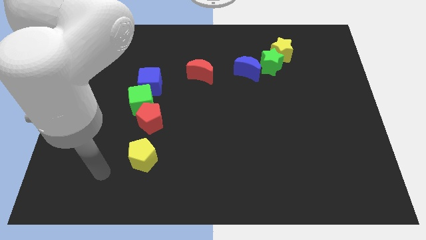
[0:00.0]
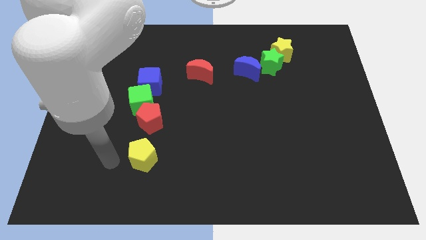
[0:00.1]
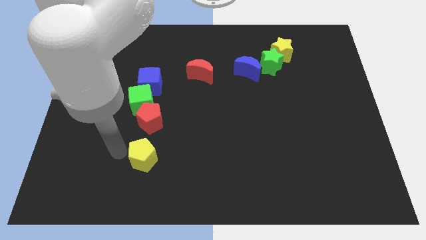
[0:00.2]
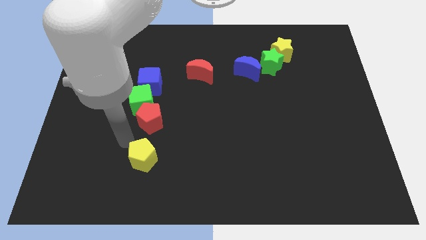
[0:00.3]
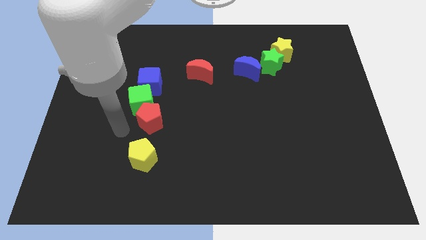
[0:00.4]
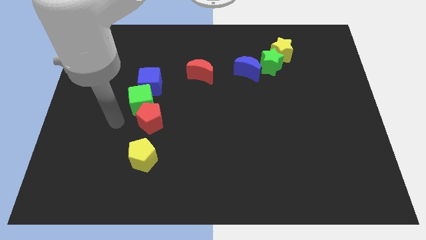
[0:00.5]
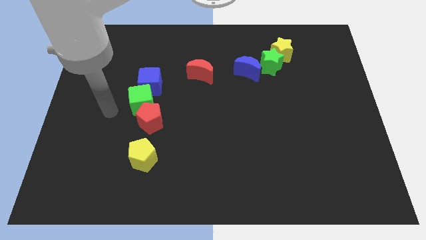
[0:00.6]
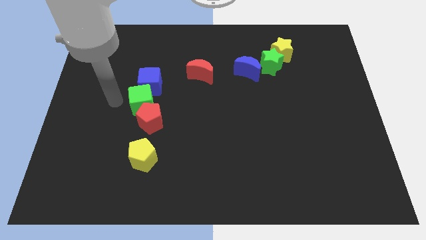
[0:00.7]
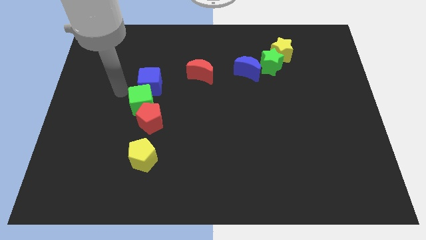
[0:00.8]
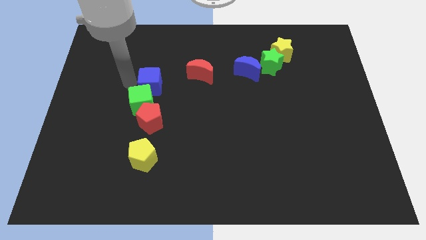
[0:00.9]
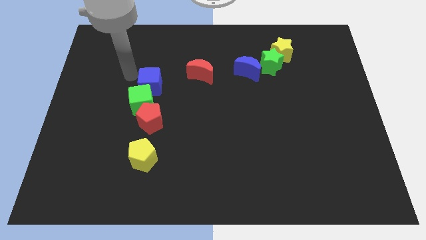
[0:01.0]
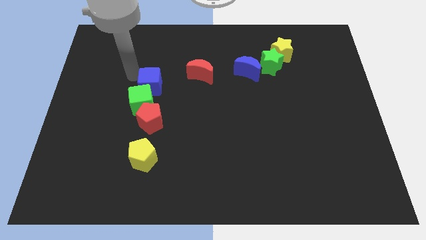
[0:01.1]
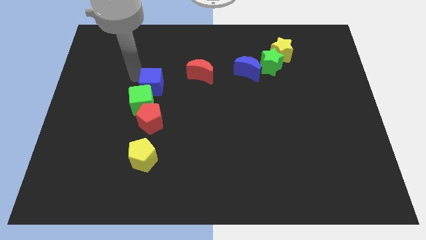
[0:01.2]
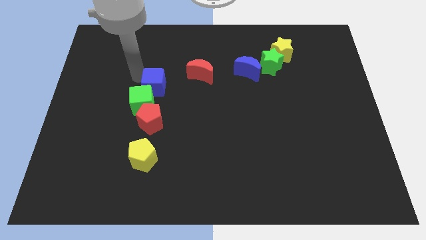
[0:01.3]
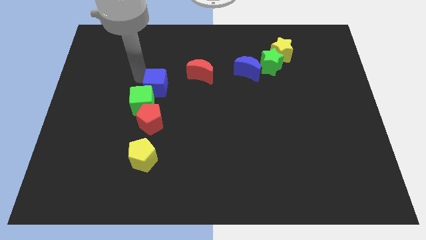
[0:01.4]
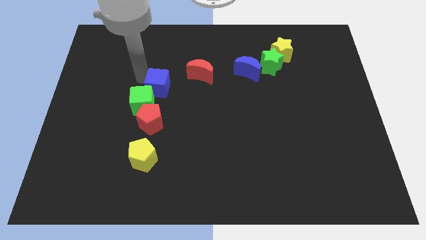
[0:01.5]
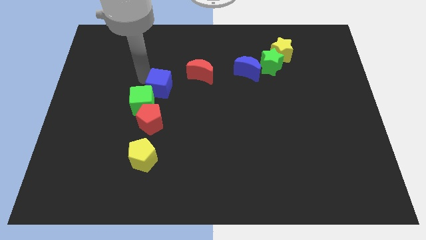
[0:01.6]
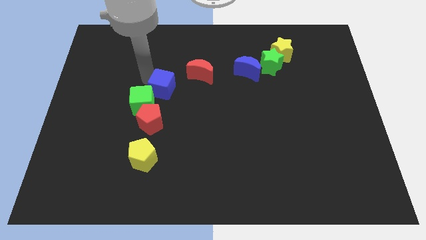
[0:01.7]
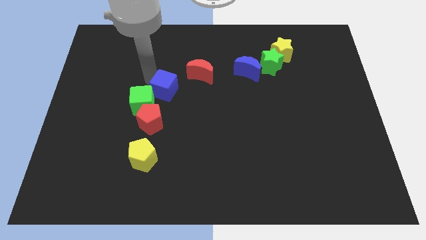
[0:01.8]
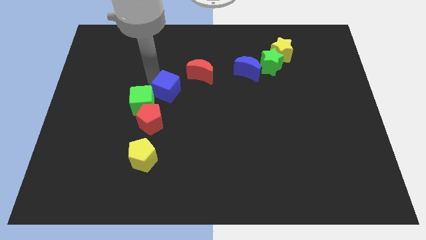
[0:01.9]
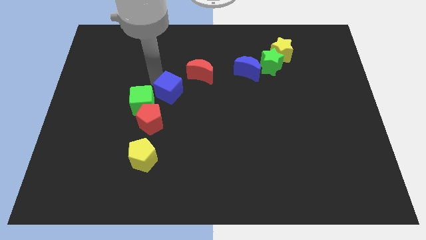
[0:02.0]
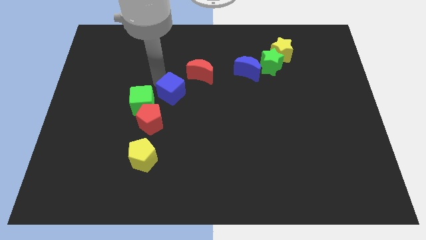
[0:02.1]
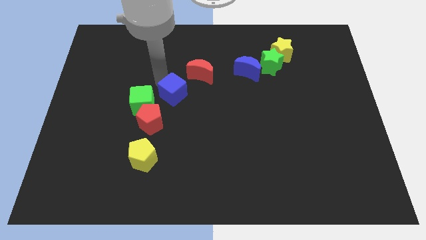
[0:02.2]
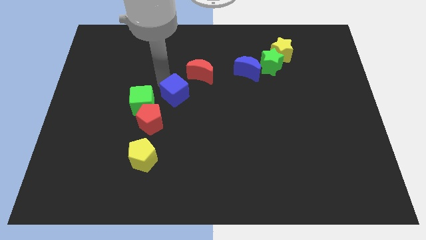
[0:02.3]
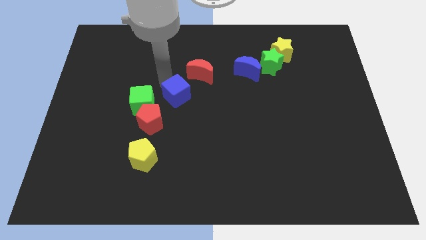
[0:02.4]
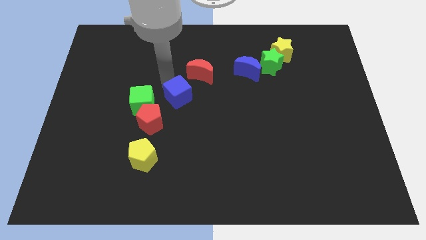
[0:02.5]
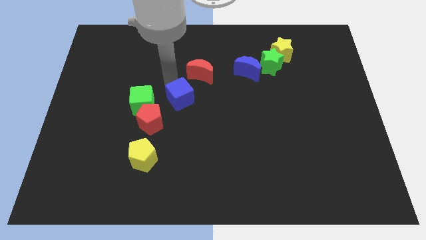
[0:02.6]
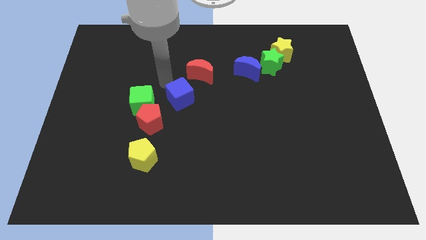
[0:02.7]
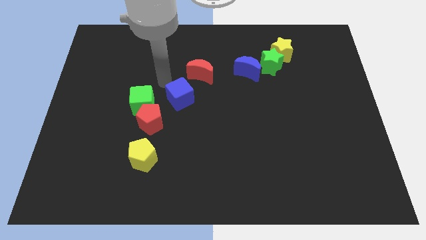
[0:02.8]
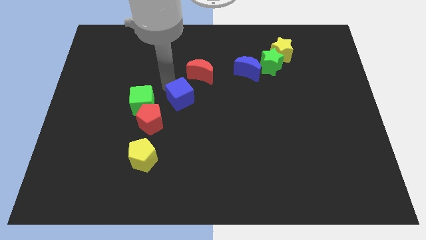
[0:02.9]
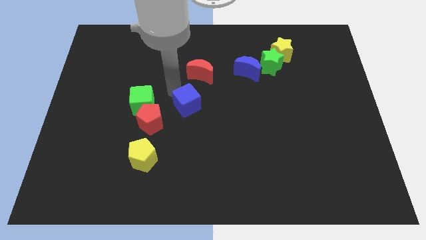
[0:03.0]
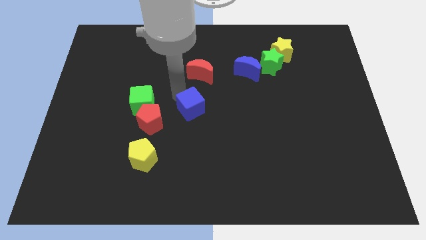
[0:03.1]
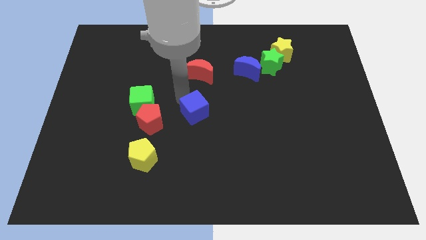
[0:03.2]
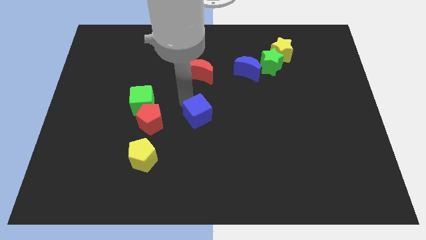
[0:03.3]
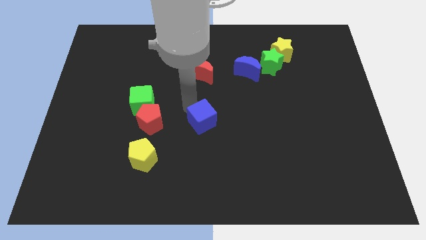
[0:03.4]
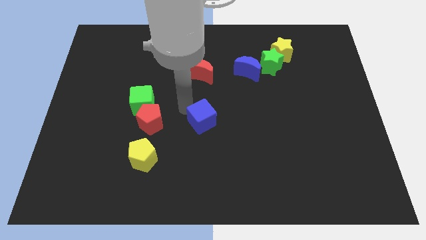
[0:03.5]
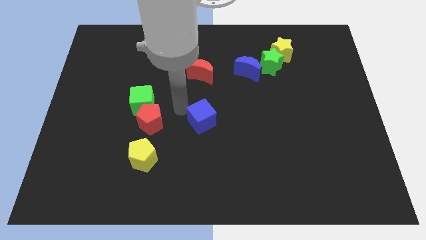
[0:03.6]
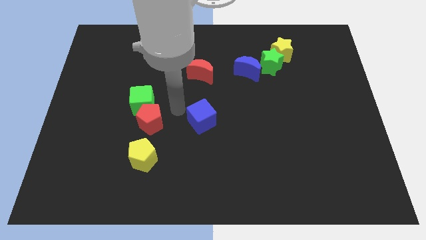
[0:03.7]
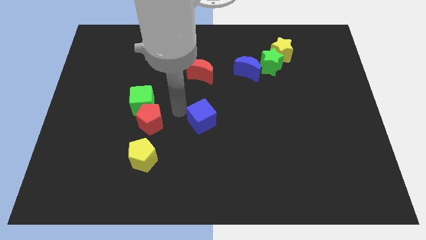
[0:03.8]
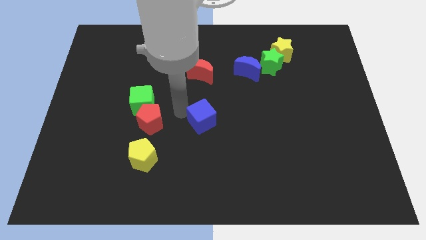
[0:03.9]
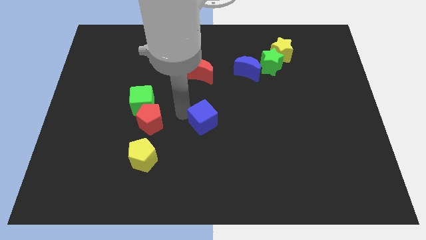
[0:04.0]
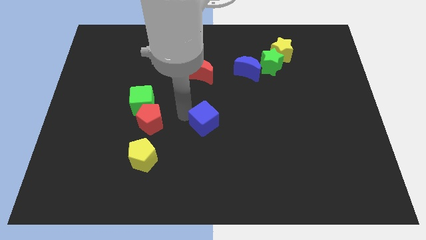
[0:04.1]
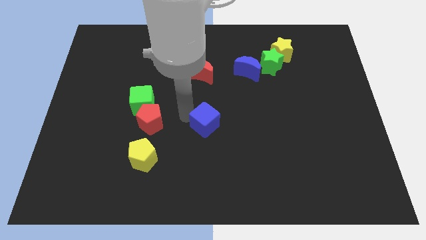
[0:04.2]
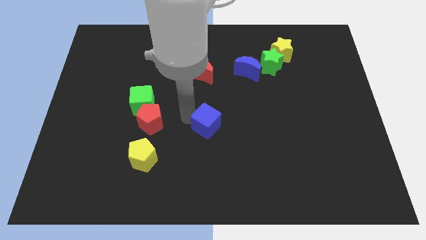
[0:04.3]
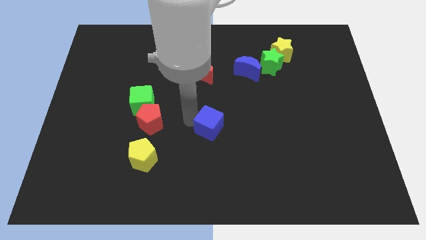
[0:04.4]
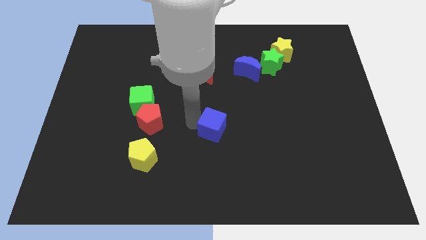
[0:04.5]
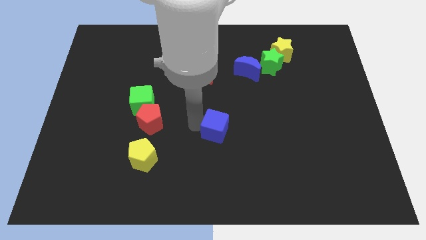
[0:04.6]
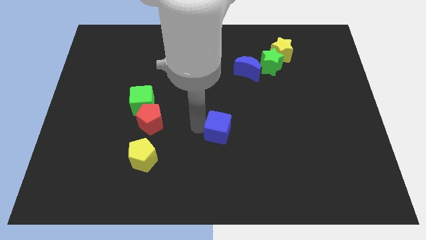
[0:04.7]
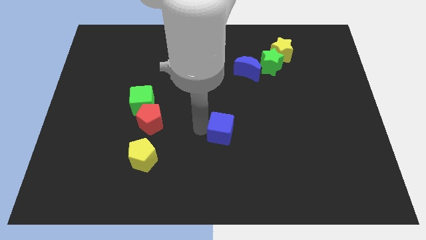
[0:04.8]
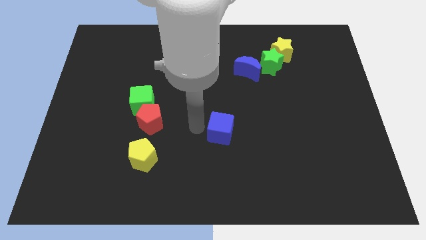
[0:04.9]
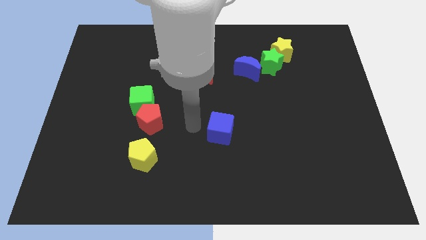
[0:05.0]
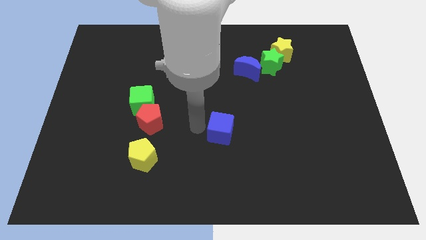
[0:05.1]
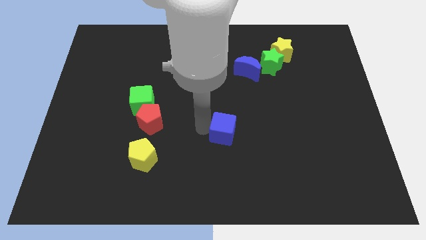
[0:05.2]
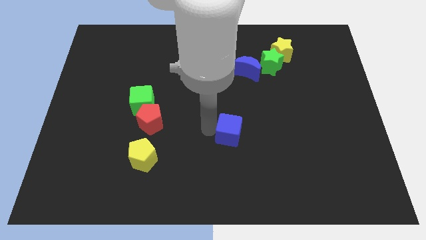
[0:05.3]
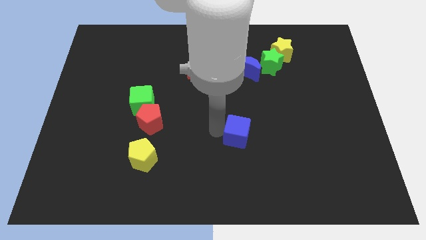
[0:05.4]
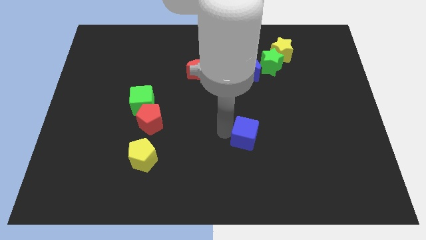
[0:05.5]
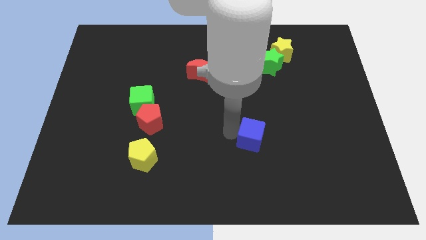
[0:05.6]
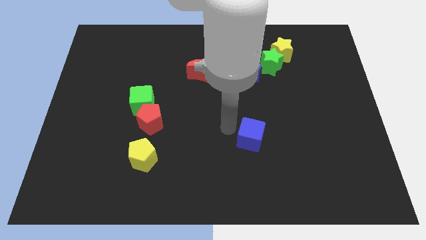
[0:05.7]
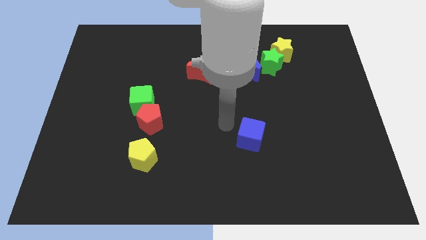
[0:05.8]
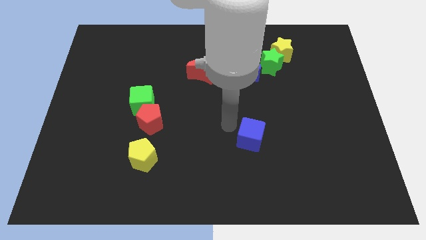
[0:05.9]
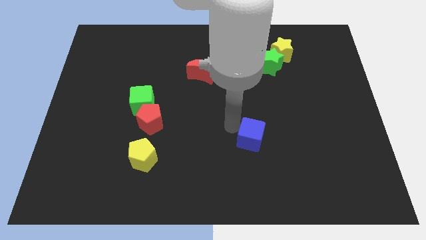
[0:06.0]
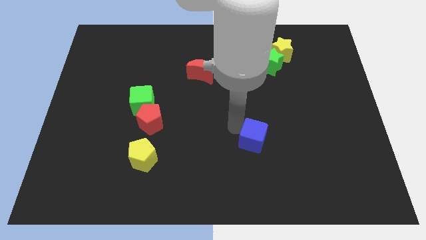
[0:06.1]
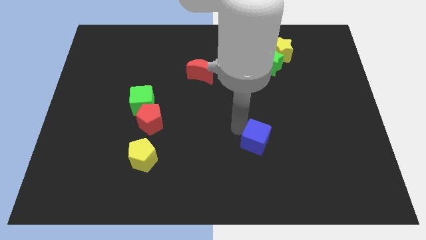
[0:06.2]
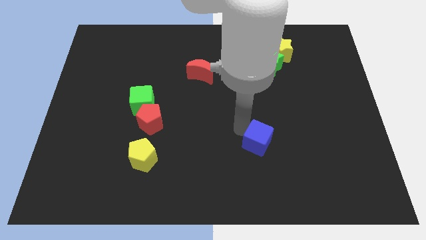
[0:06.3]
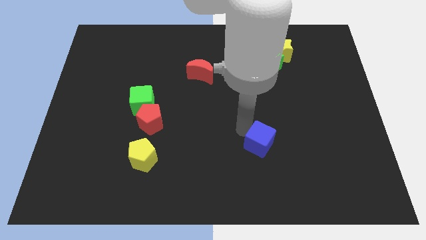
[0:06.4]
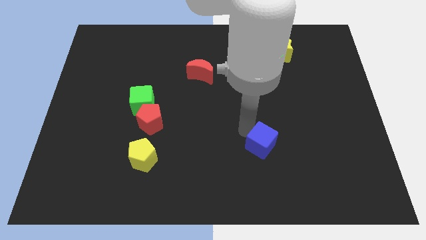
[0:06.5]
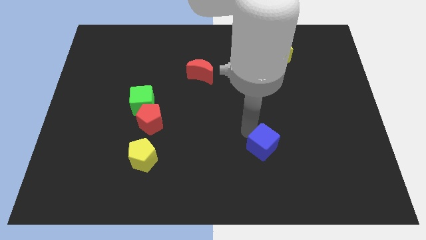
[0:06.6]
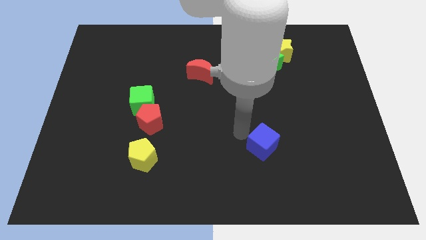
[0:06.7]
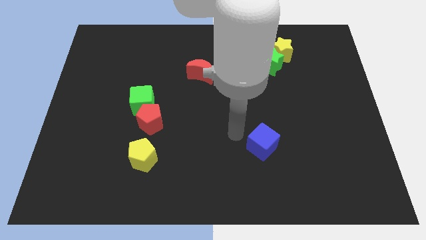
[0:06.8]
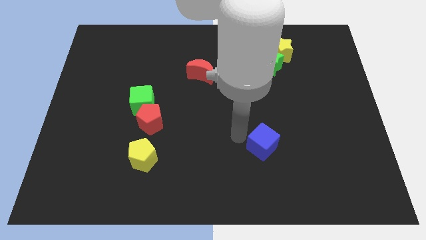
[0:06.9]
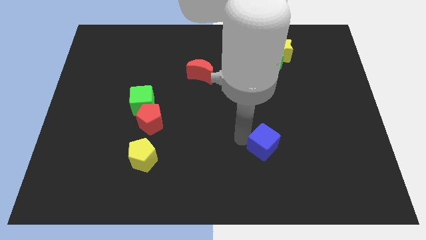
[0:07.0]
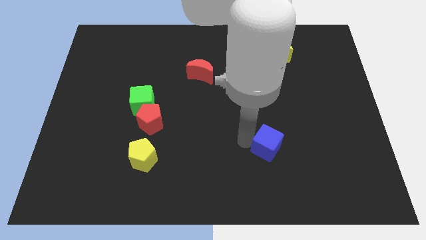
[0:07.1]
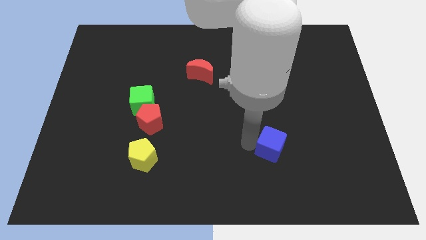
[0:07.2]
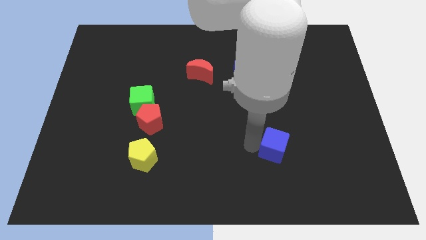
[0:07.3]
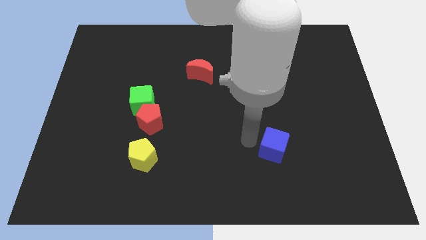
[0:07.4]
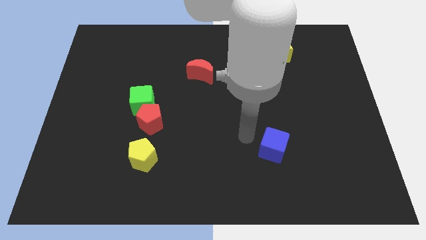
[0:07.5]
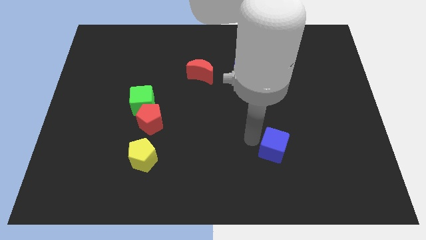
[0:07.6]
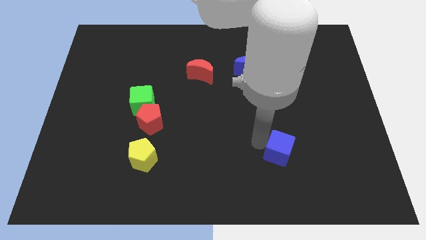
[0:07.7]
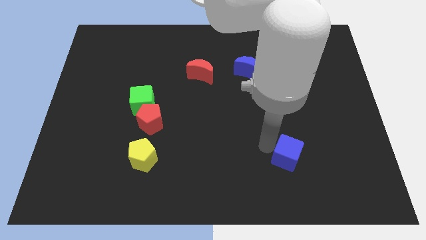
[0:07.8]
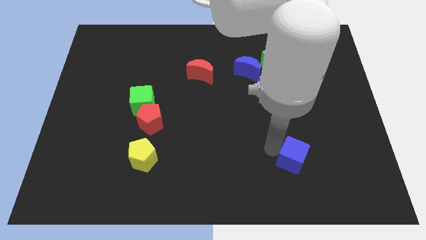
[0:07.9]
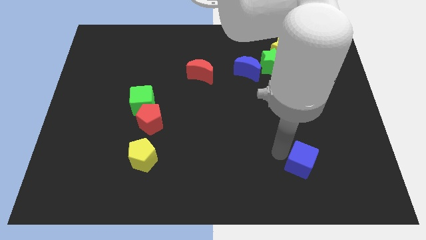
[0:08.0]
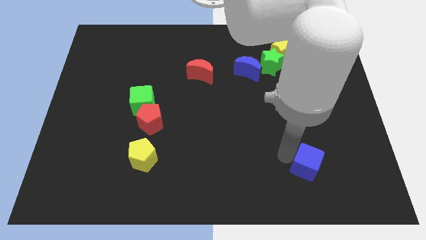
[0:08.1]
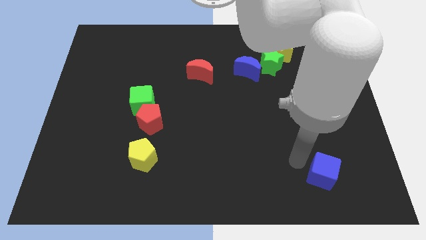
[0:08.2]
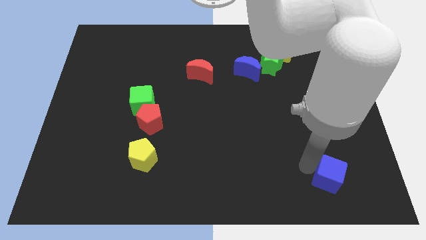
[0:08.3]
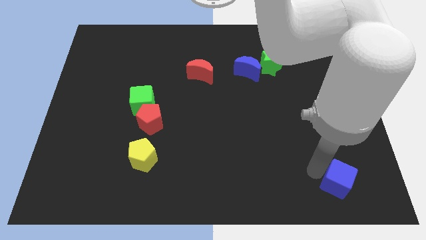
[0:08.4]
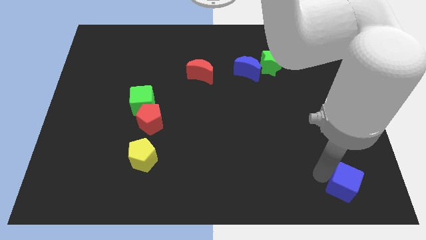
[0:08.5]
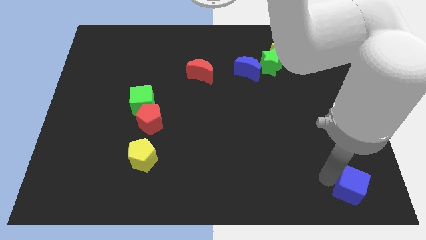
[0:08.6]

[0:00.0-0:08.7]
put the blue cube to the bottom right
